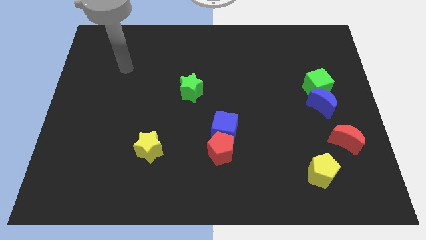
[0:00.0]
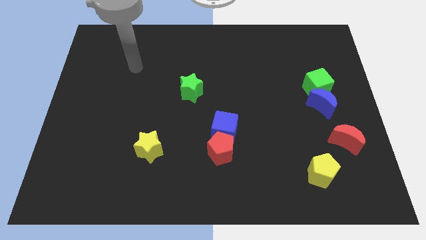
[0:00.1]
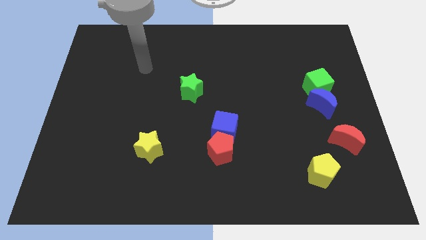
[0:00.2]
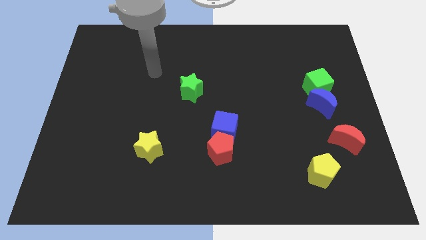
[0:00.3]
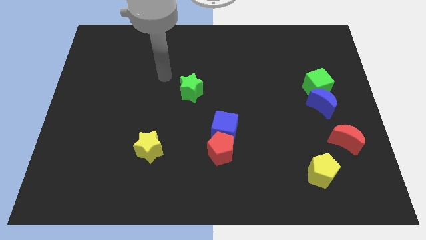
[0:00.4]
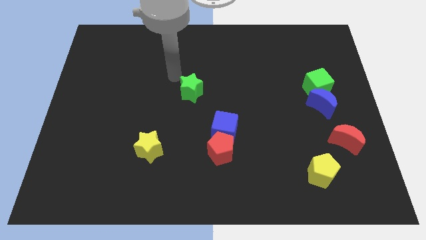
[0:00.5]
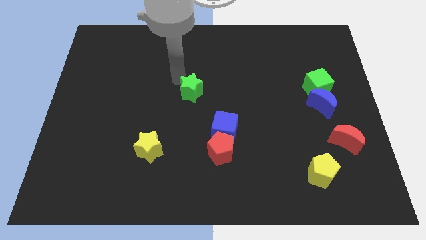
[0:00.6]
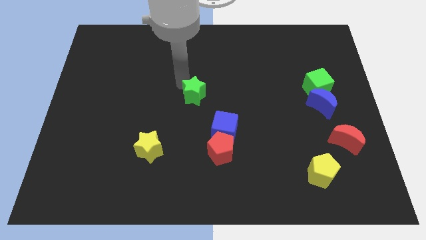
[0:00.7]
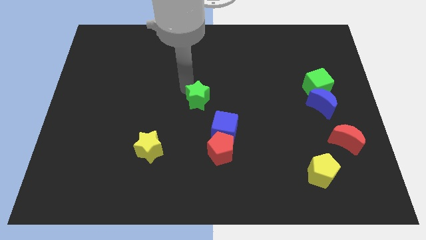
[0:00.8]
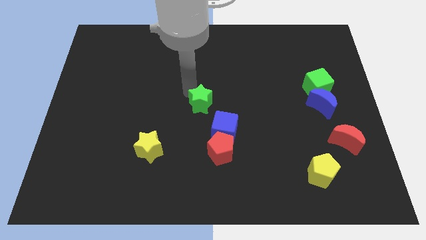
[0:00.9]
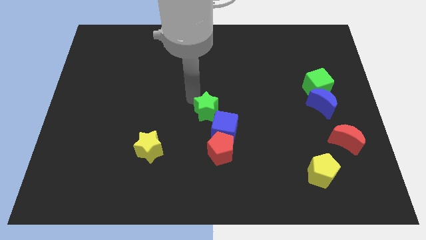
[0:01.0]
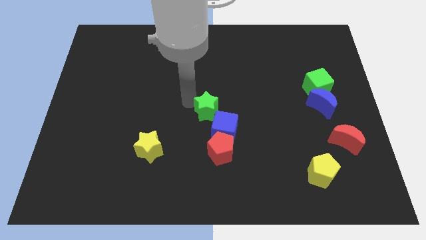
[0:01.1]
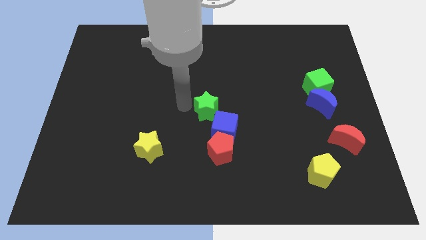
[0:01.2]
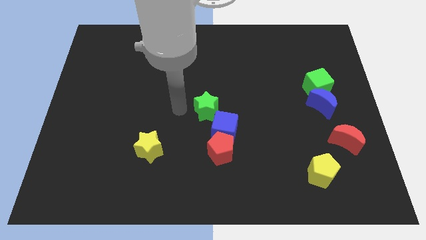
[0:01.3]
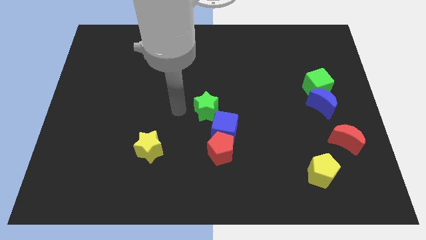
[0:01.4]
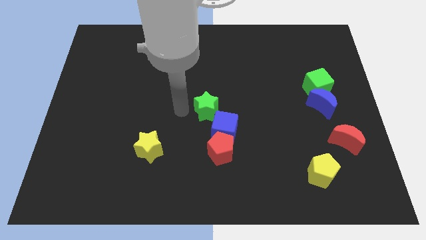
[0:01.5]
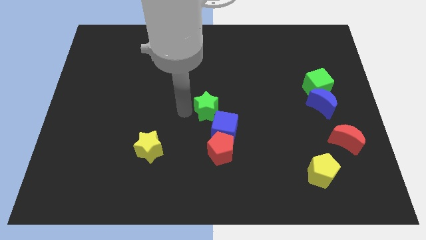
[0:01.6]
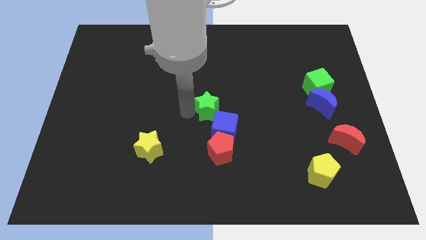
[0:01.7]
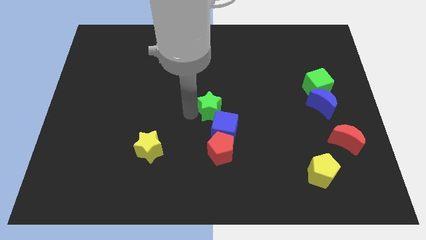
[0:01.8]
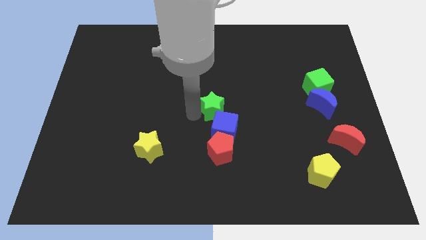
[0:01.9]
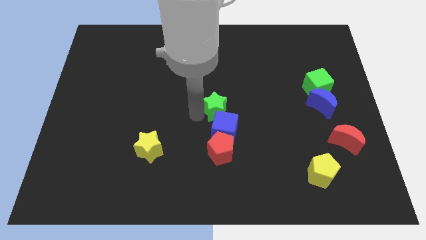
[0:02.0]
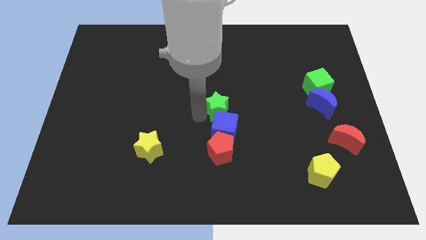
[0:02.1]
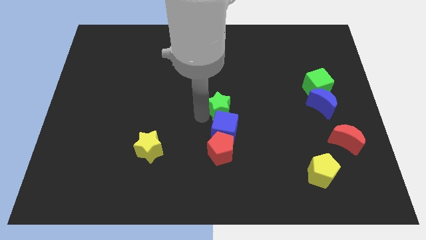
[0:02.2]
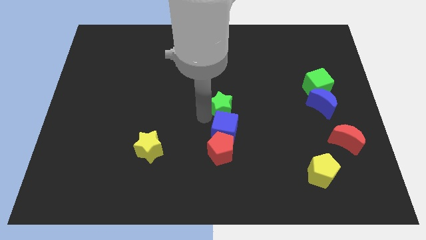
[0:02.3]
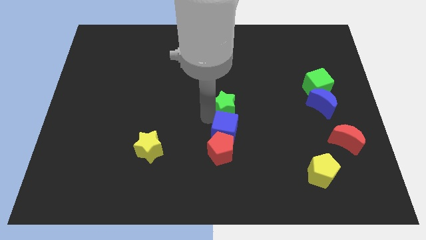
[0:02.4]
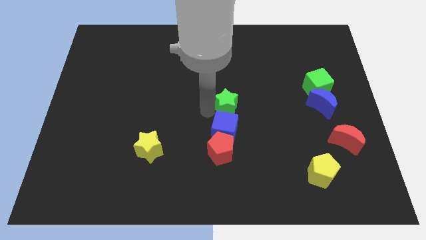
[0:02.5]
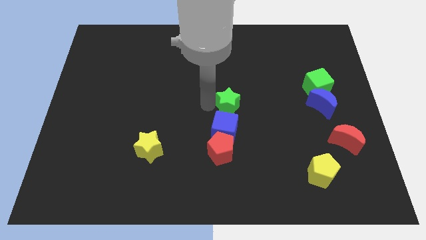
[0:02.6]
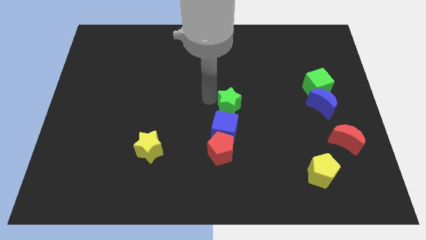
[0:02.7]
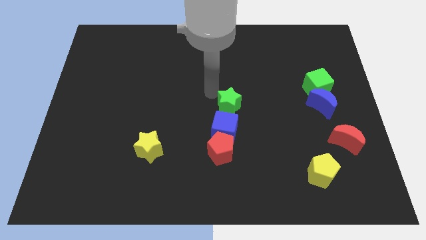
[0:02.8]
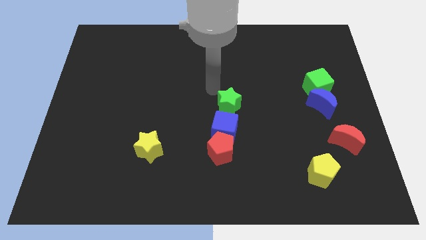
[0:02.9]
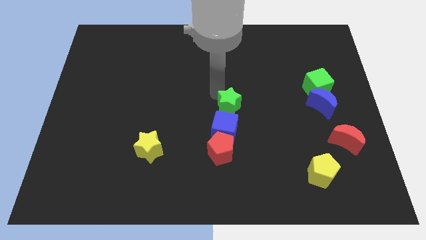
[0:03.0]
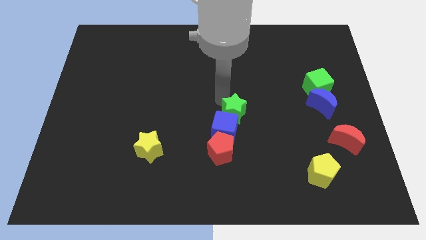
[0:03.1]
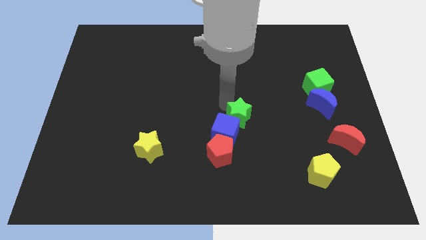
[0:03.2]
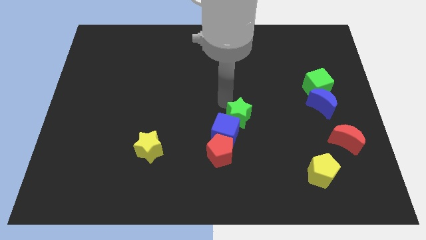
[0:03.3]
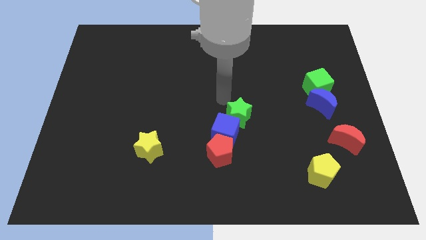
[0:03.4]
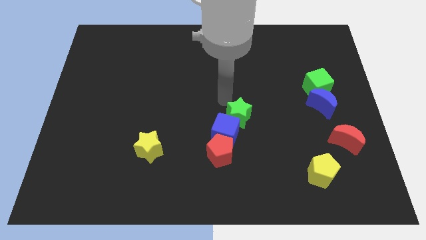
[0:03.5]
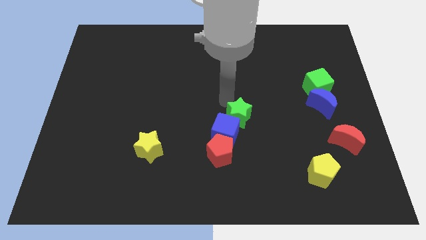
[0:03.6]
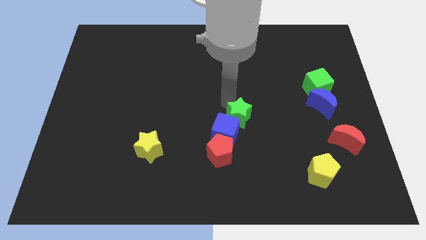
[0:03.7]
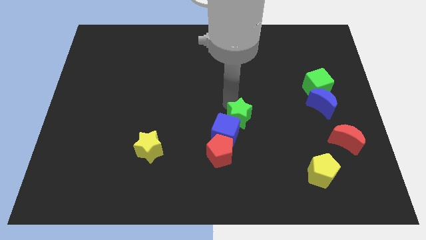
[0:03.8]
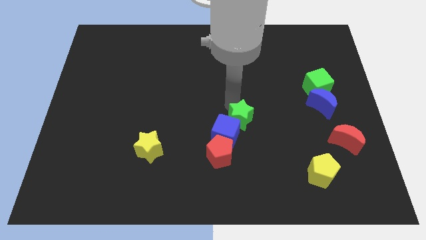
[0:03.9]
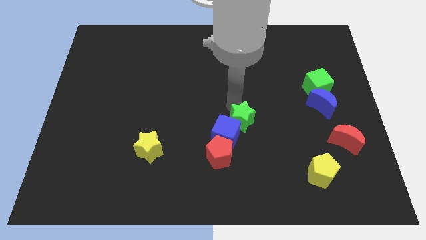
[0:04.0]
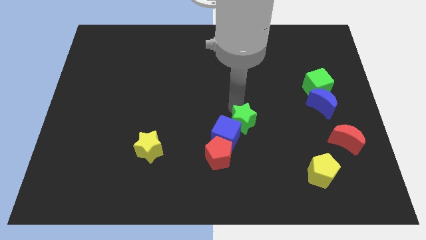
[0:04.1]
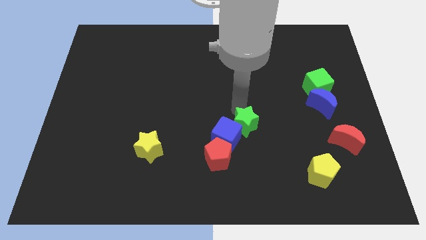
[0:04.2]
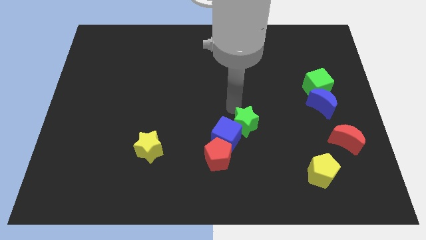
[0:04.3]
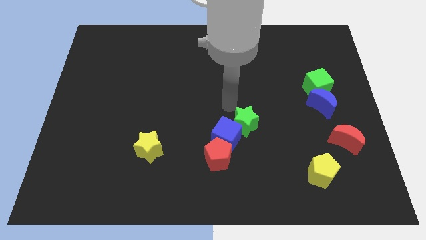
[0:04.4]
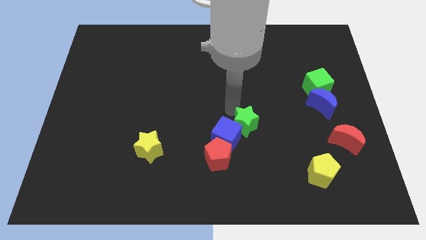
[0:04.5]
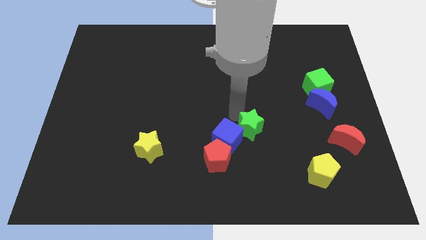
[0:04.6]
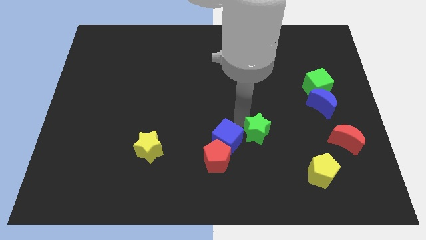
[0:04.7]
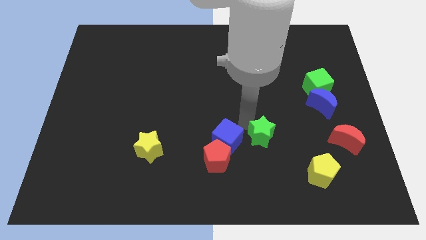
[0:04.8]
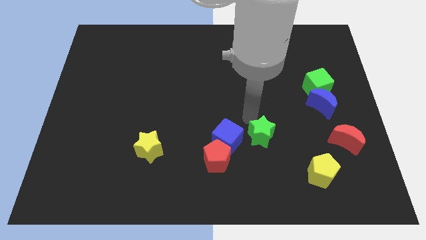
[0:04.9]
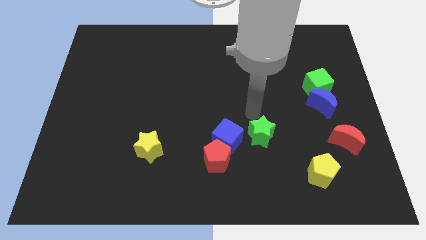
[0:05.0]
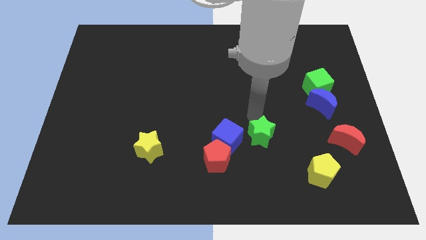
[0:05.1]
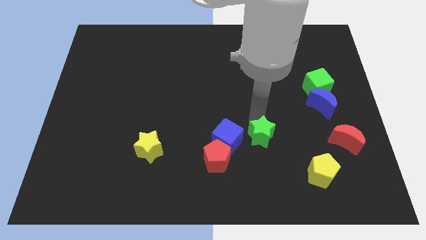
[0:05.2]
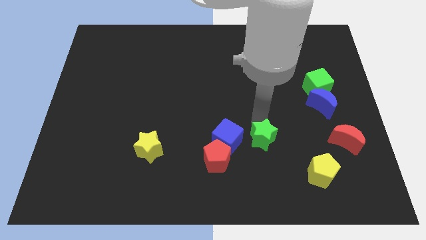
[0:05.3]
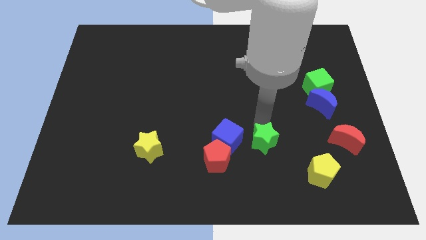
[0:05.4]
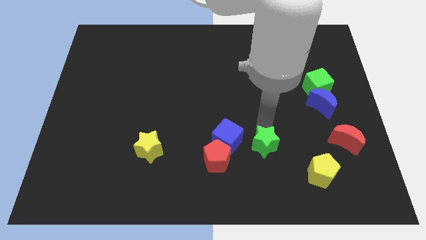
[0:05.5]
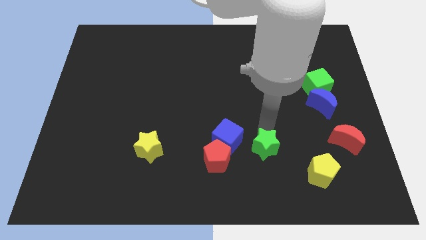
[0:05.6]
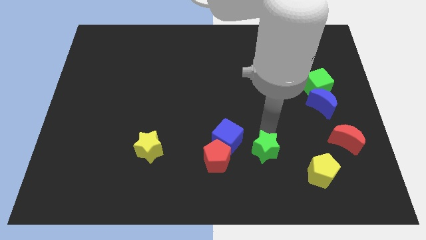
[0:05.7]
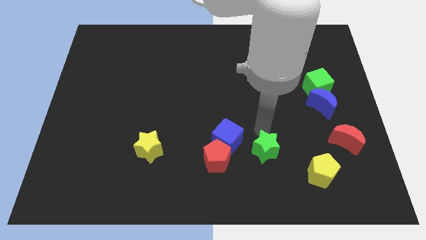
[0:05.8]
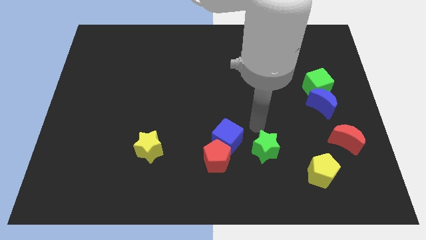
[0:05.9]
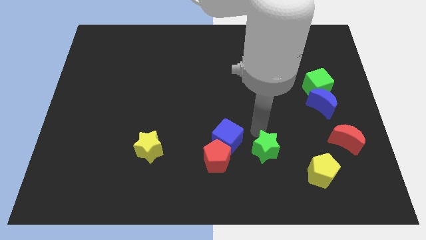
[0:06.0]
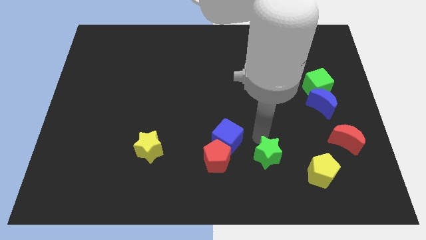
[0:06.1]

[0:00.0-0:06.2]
push the green star to the left of the yellow pentagon

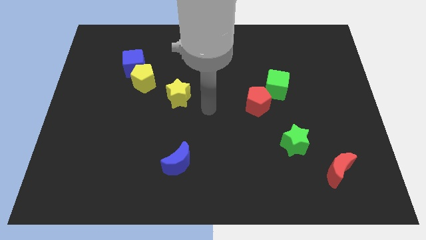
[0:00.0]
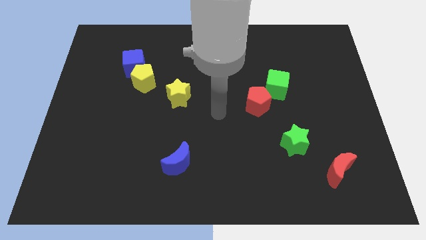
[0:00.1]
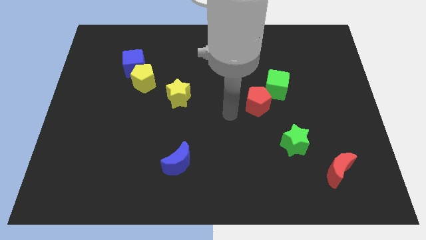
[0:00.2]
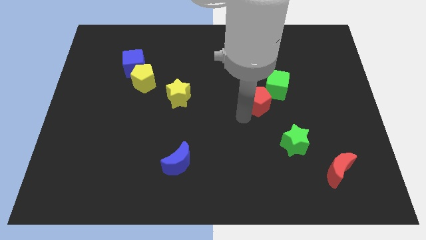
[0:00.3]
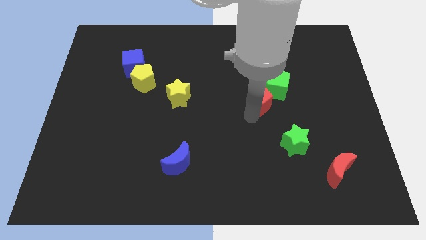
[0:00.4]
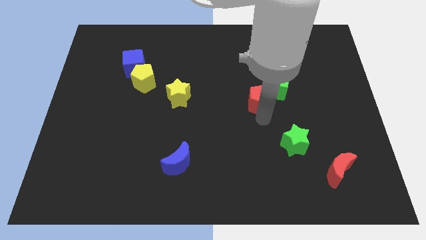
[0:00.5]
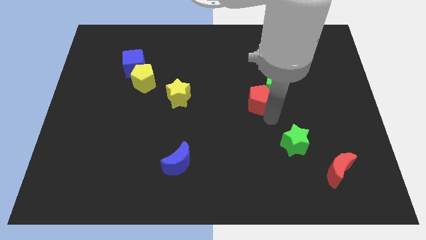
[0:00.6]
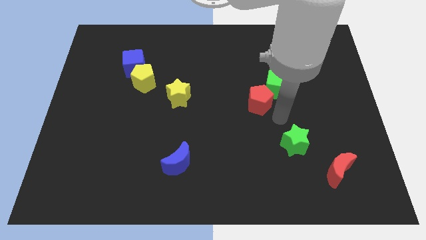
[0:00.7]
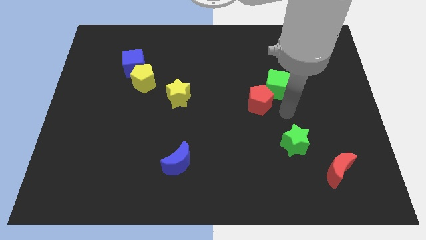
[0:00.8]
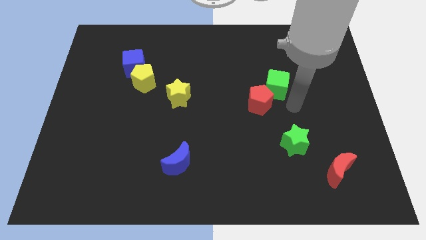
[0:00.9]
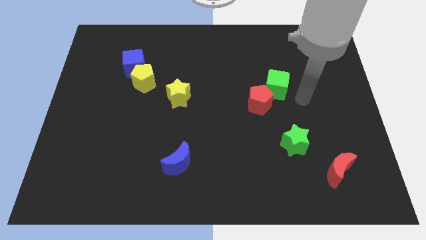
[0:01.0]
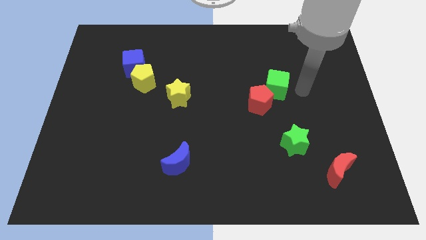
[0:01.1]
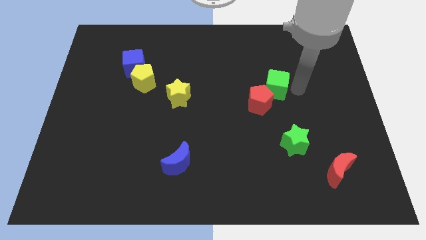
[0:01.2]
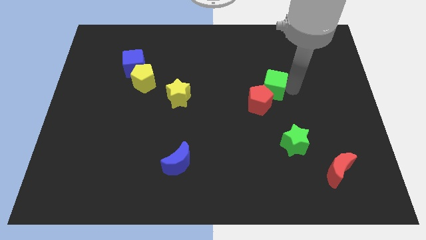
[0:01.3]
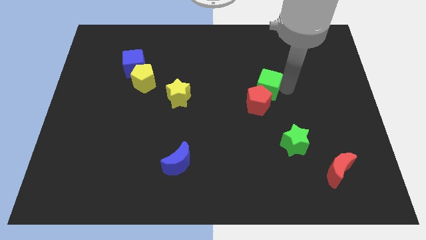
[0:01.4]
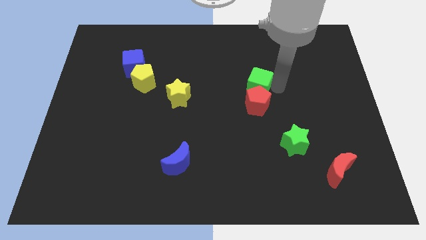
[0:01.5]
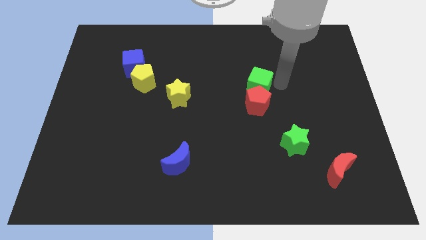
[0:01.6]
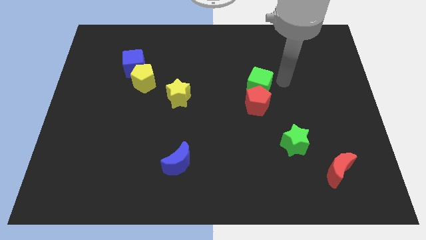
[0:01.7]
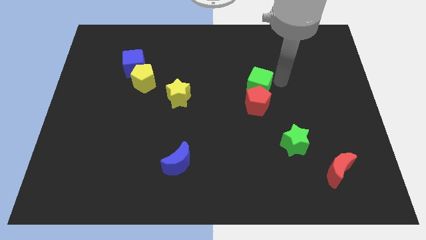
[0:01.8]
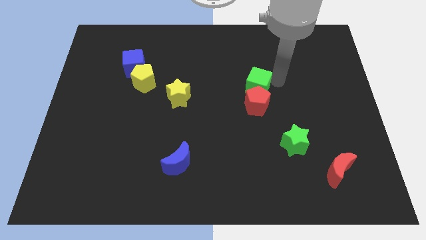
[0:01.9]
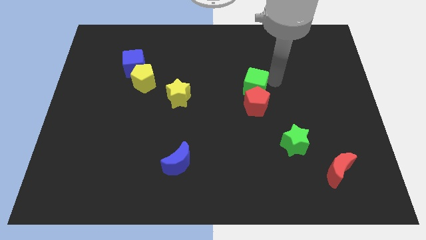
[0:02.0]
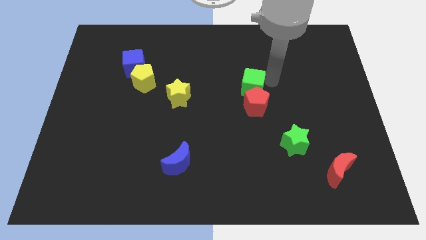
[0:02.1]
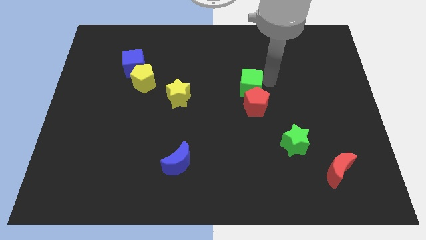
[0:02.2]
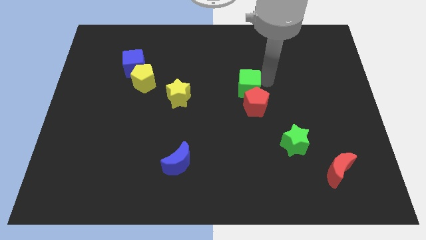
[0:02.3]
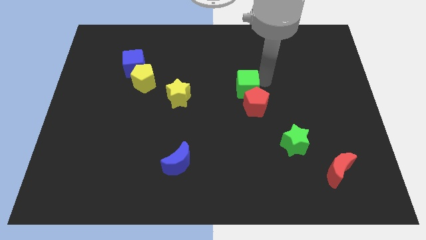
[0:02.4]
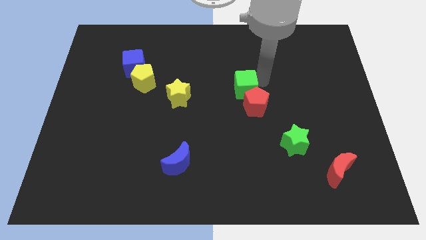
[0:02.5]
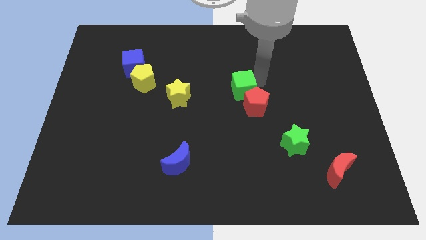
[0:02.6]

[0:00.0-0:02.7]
push the green cube just right of the yellow star
